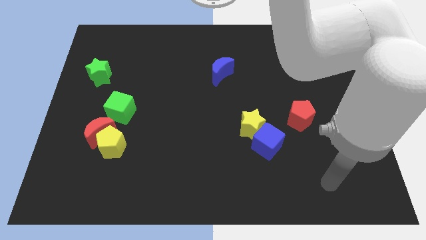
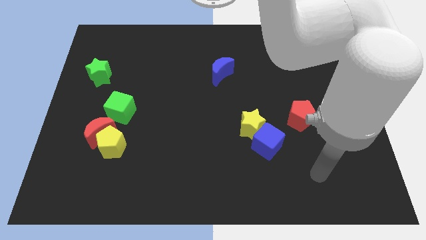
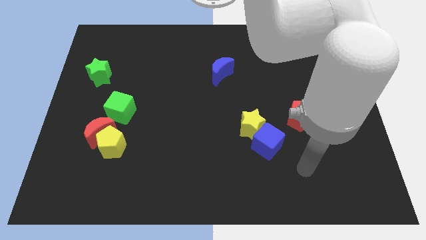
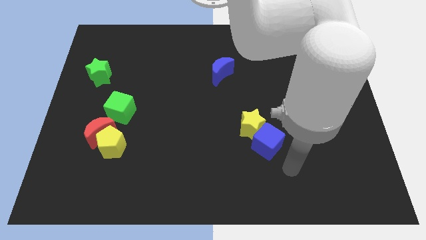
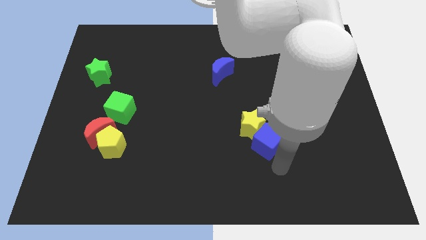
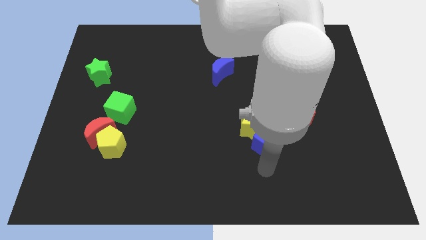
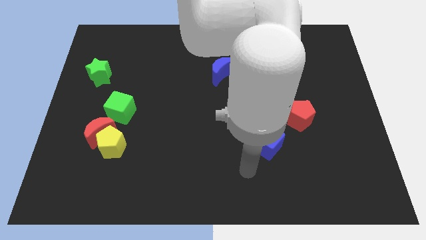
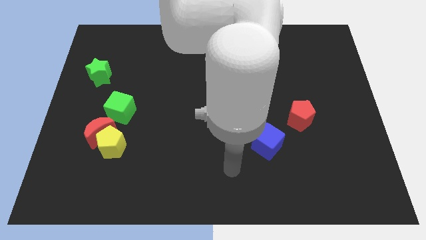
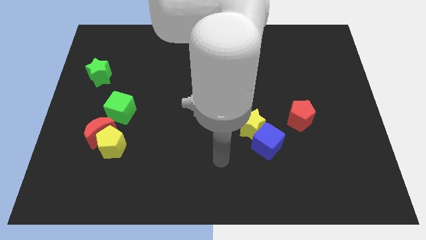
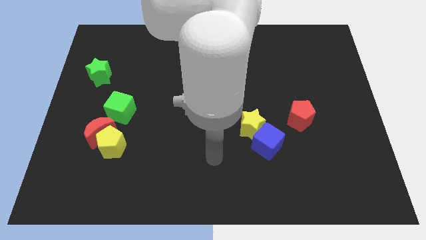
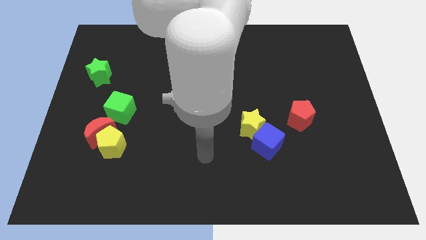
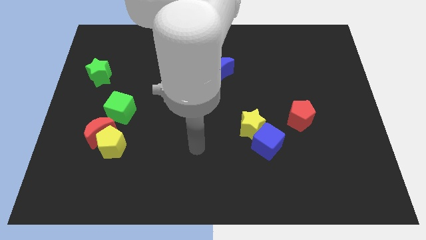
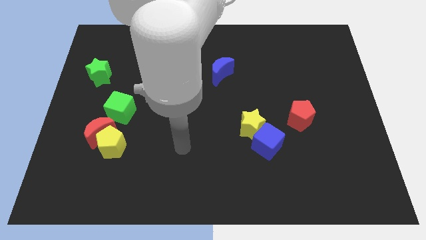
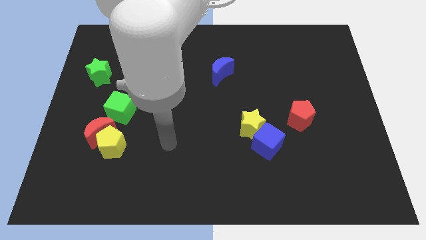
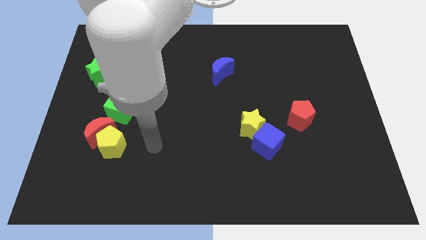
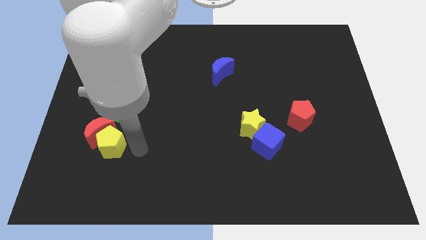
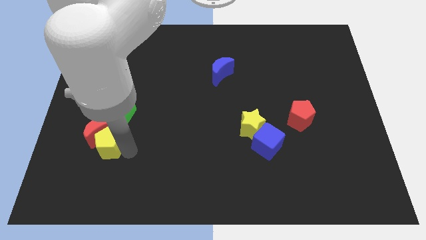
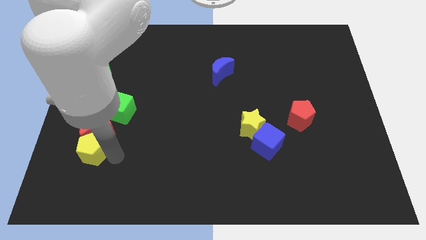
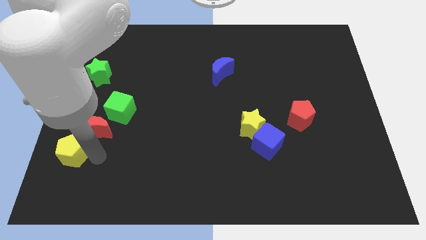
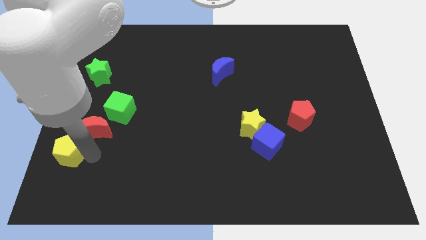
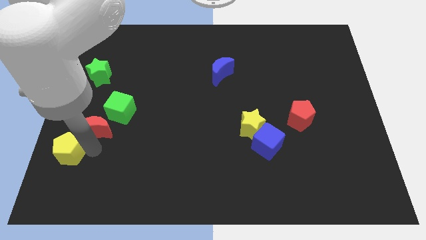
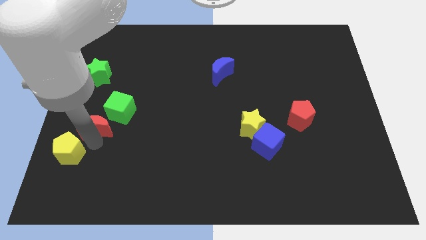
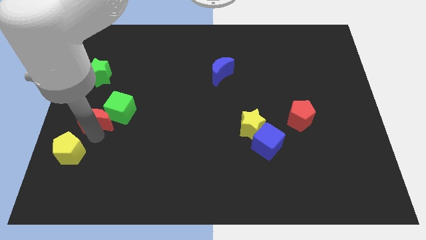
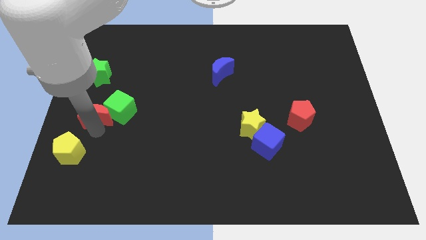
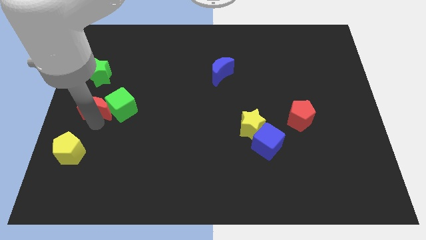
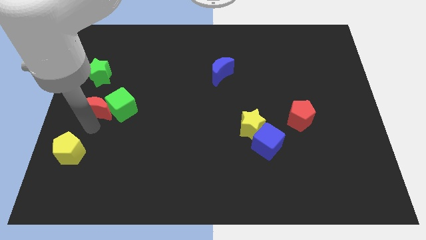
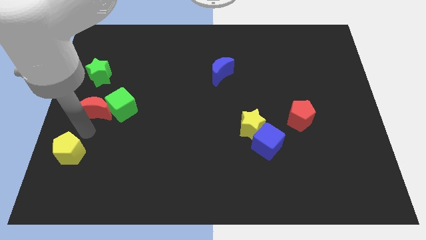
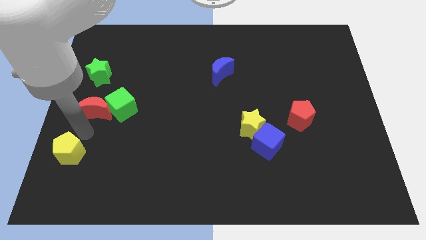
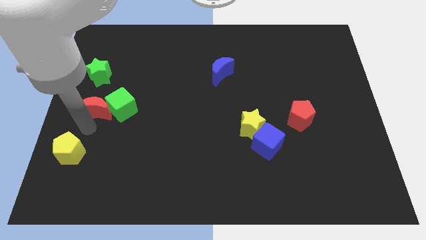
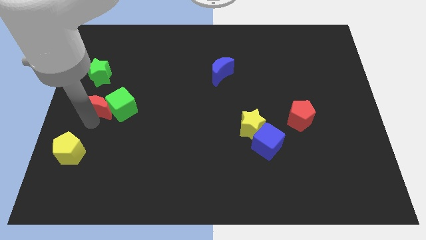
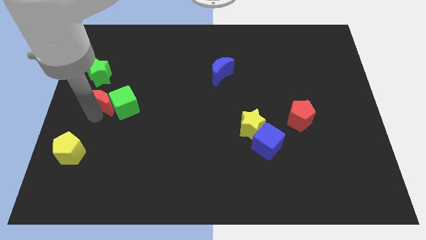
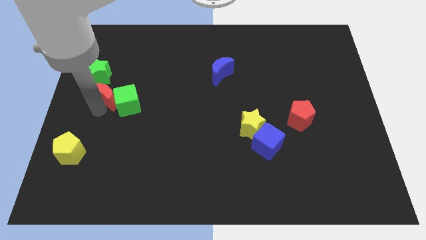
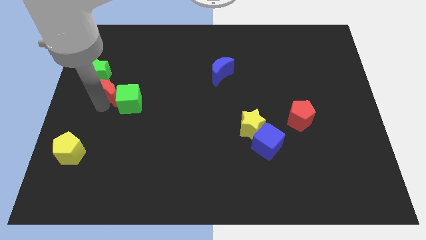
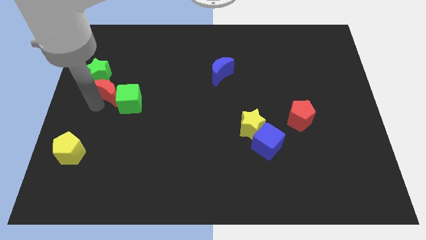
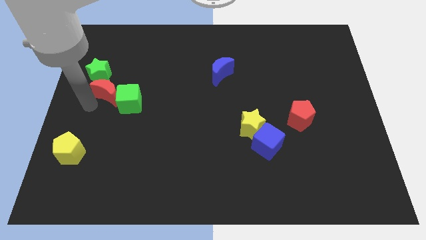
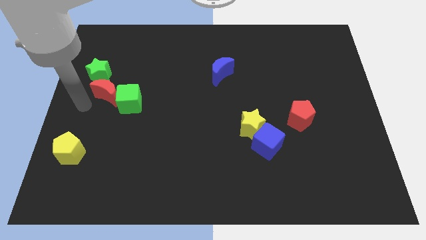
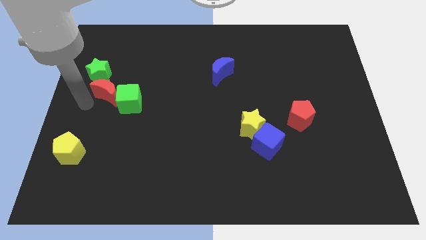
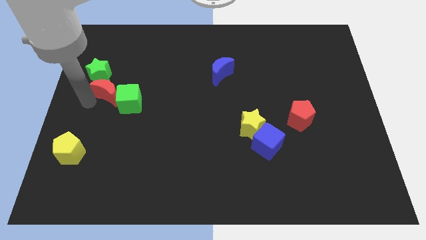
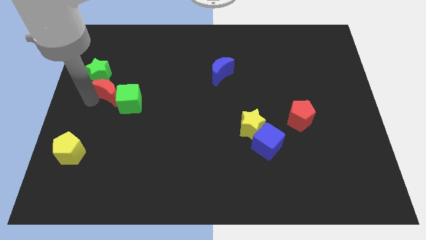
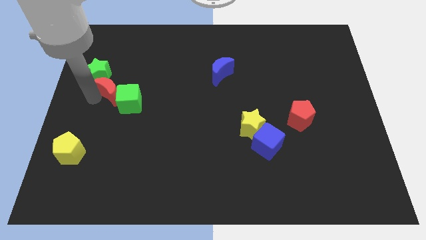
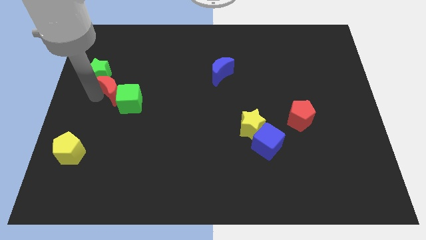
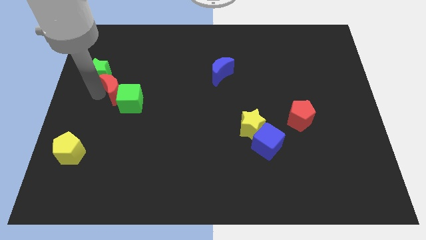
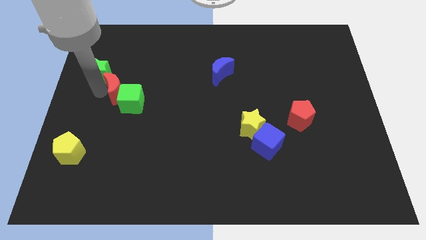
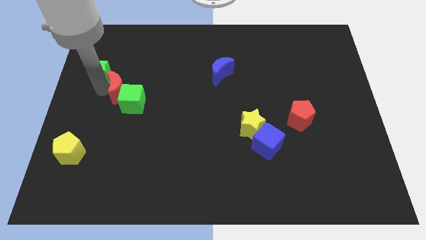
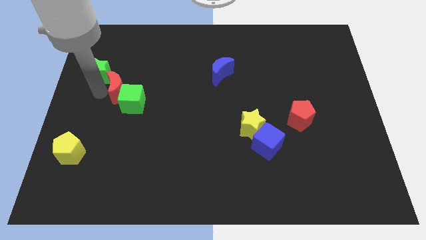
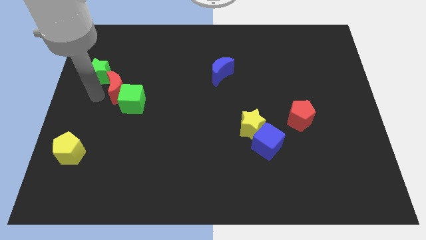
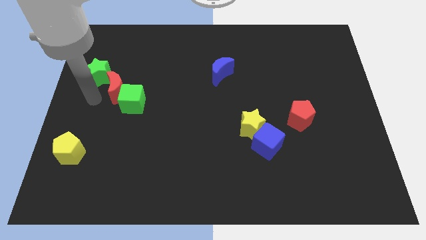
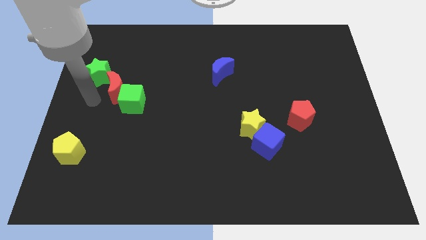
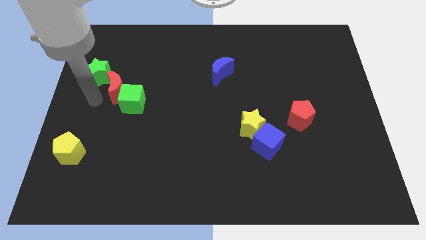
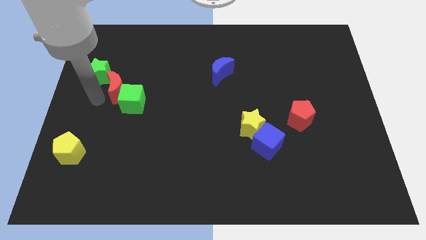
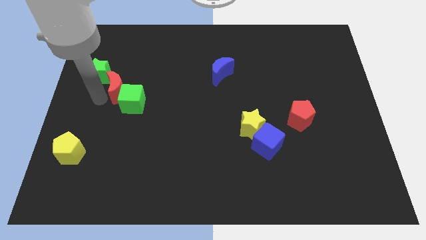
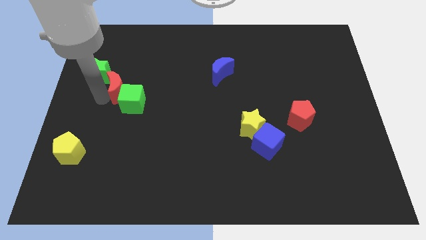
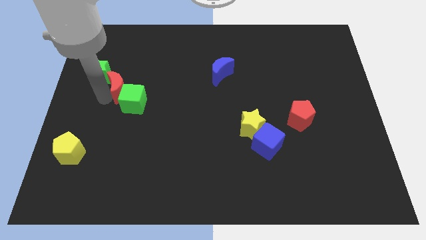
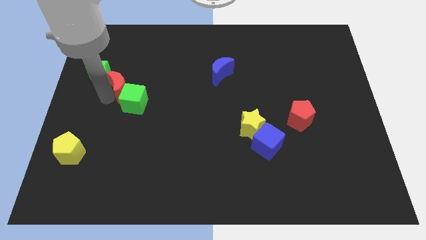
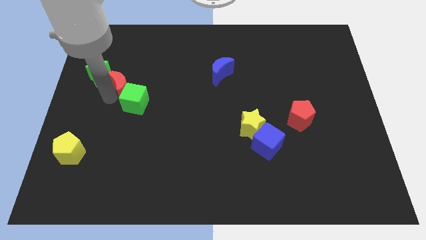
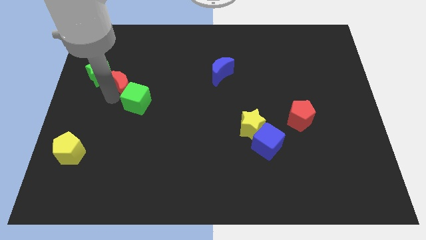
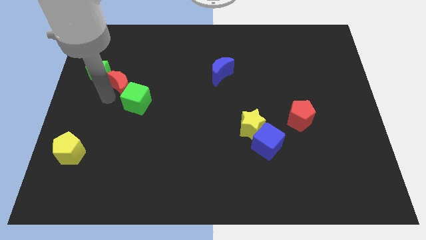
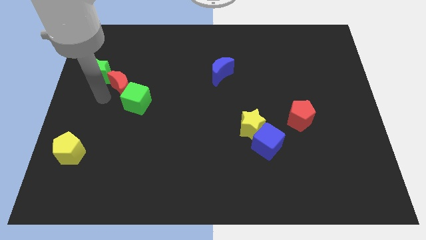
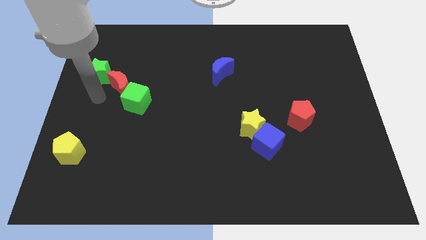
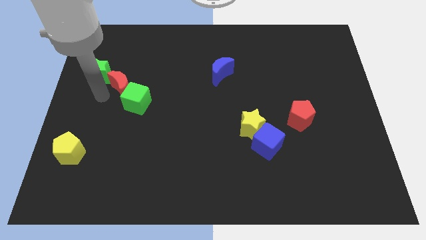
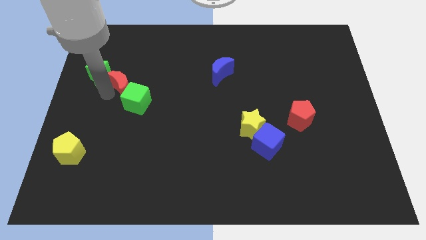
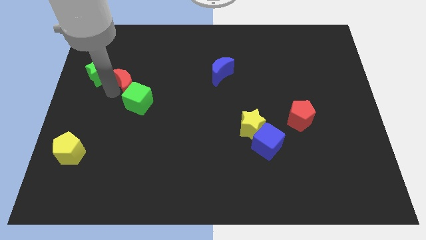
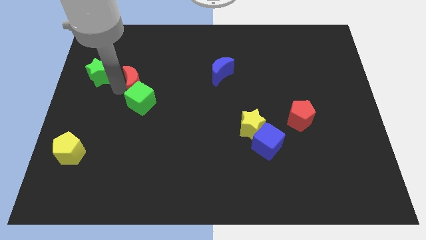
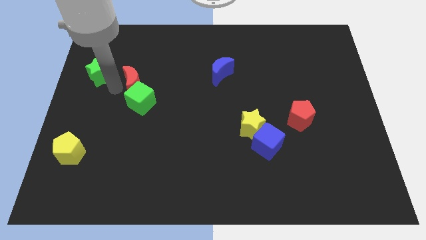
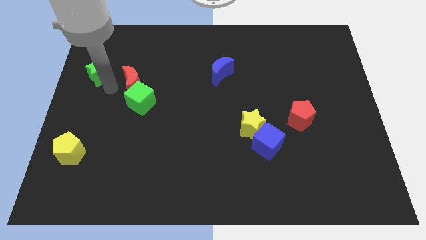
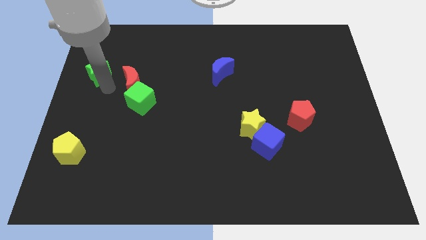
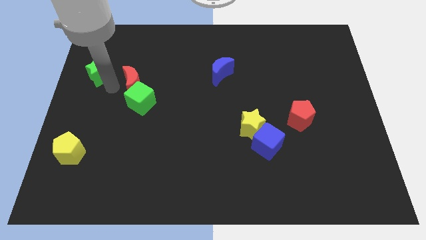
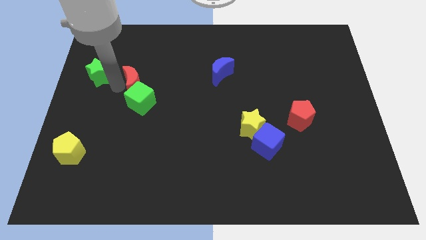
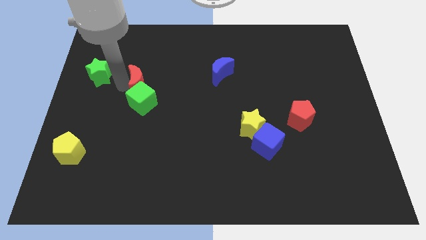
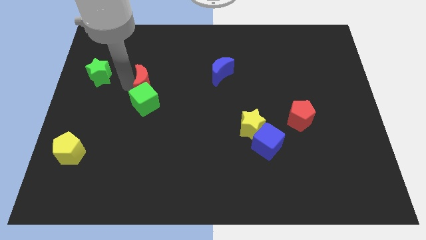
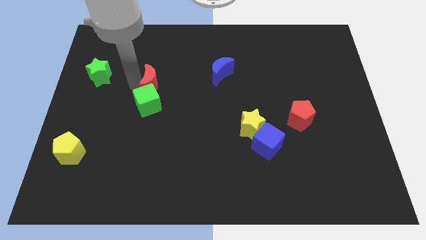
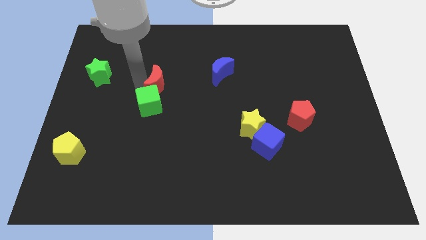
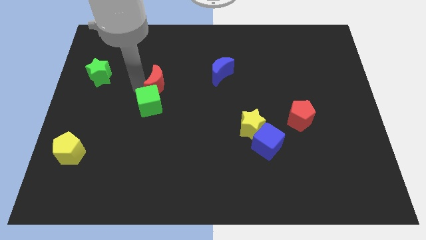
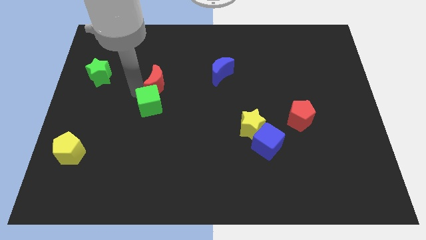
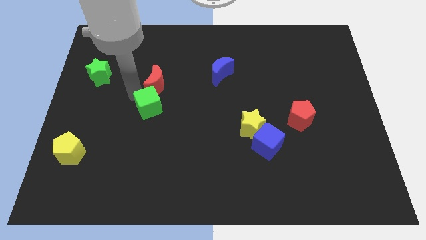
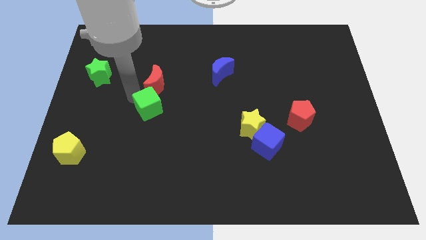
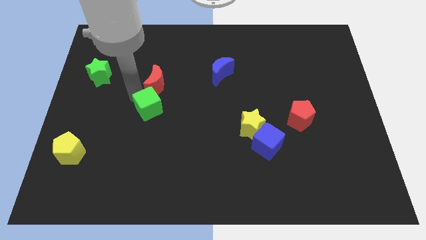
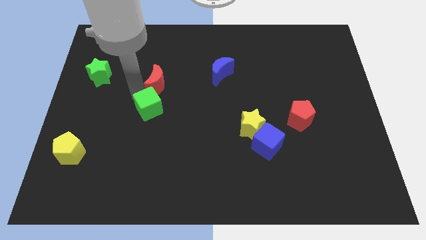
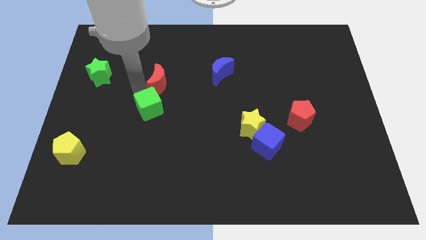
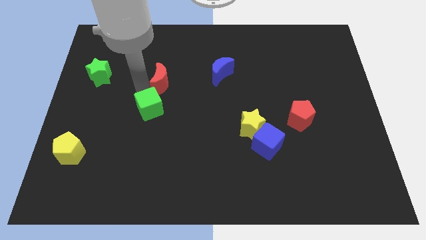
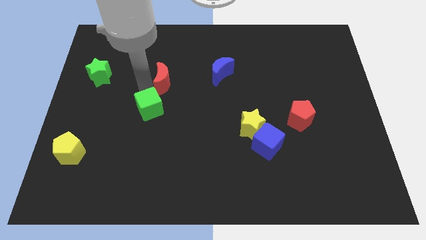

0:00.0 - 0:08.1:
slide the red moon upwards and right diagonally

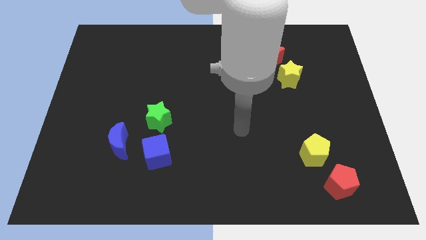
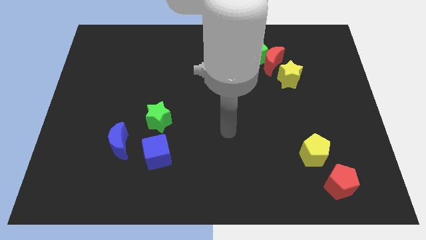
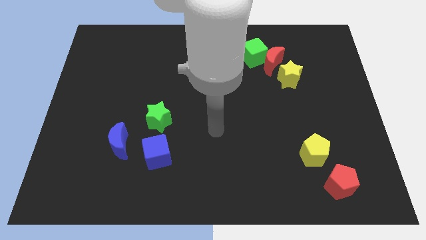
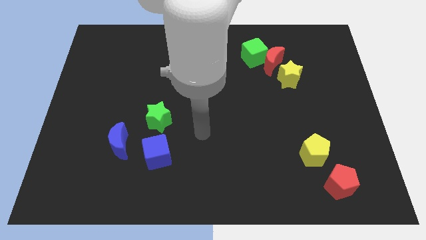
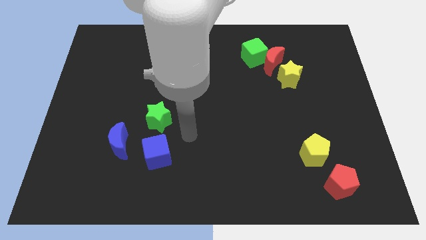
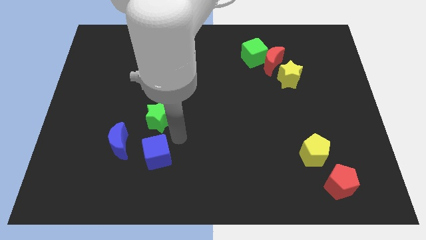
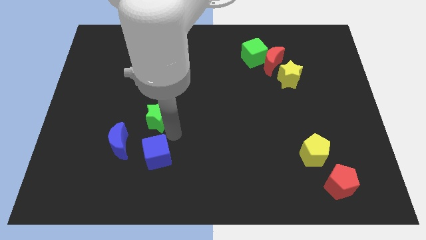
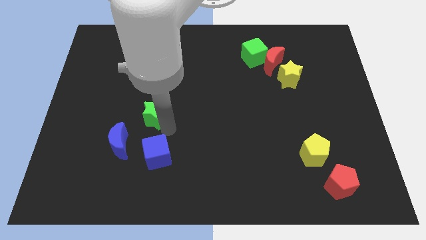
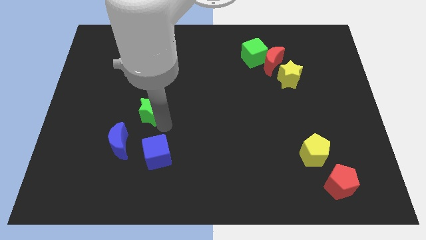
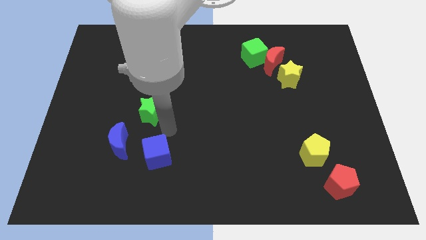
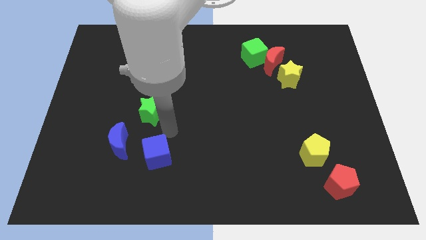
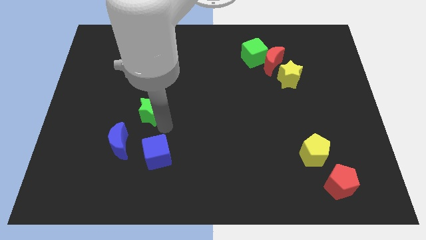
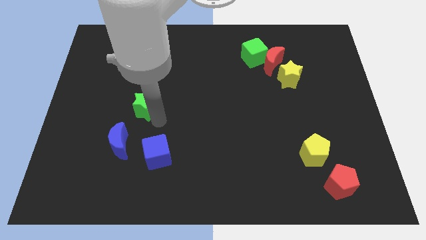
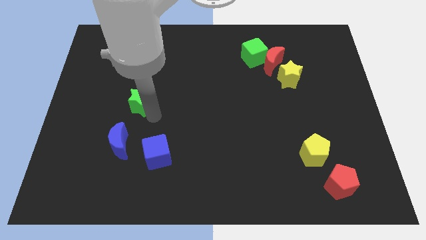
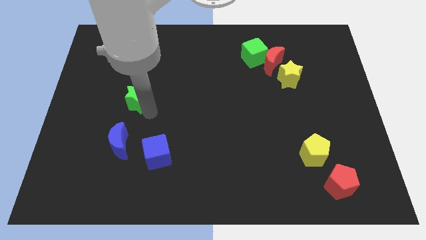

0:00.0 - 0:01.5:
push the green star up and then left a bit
